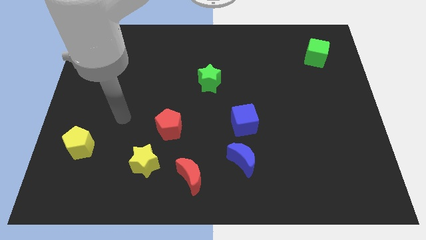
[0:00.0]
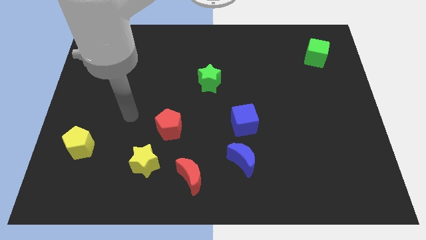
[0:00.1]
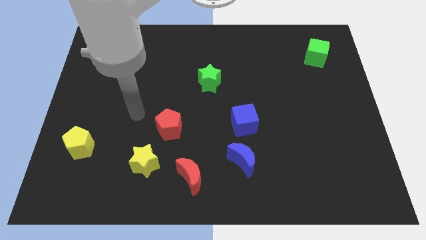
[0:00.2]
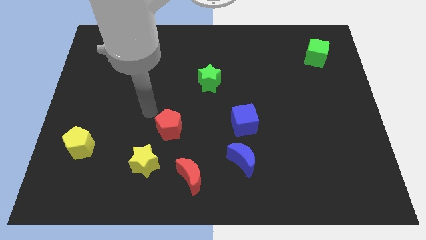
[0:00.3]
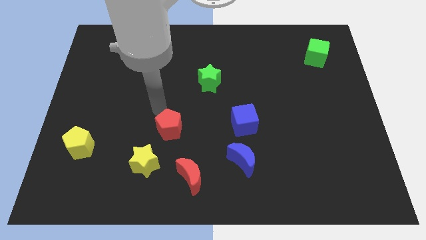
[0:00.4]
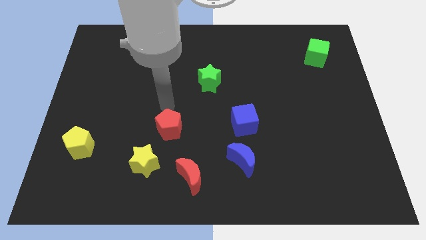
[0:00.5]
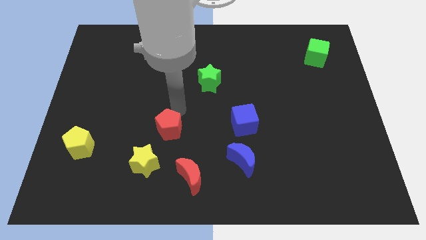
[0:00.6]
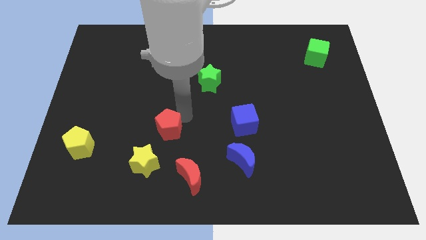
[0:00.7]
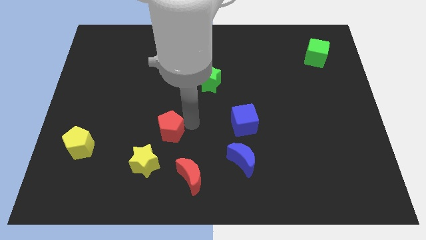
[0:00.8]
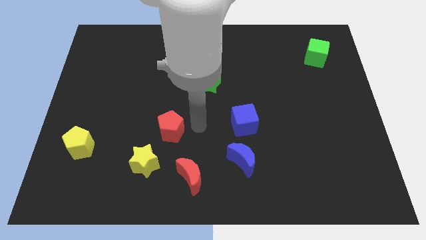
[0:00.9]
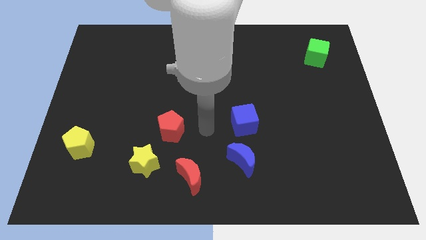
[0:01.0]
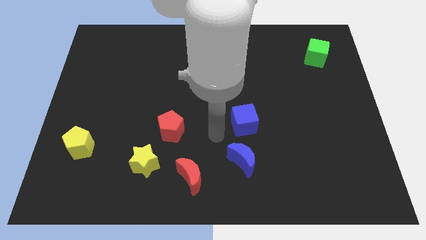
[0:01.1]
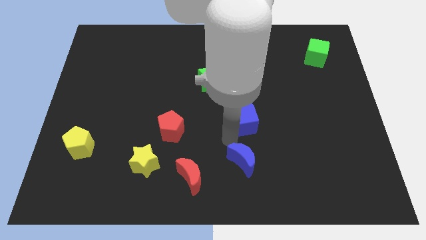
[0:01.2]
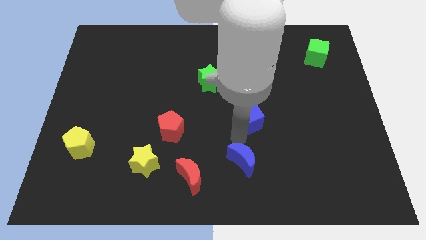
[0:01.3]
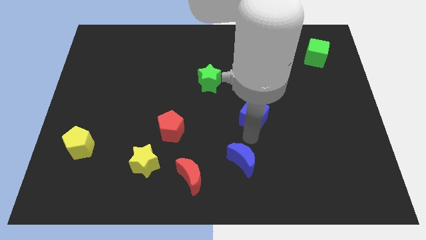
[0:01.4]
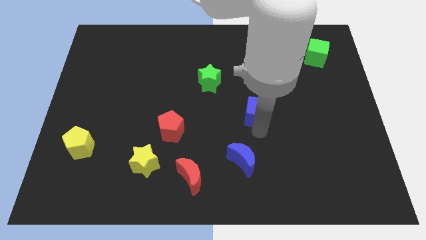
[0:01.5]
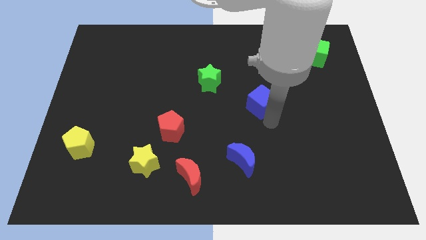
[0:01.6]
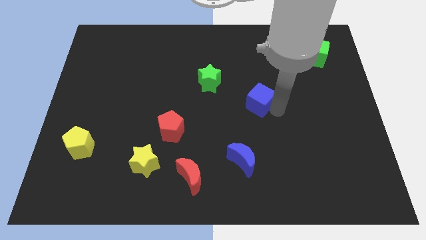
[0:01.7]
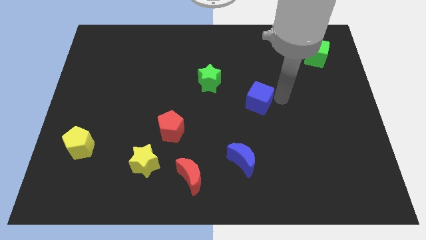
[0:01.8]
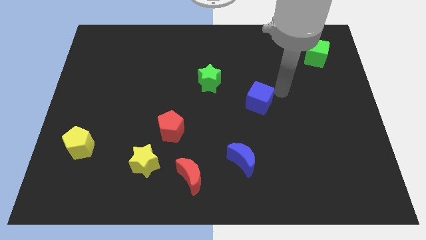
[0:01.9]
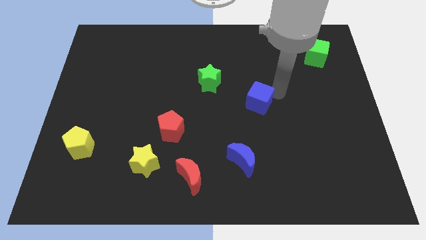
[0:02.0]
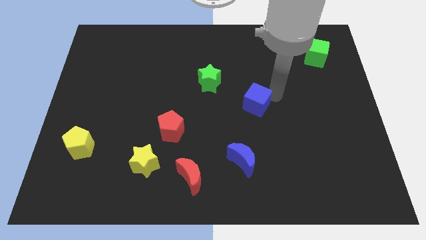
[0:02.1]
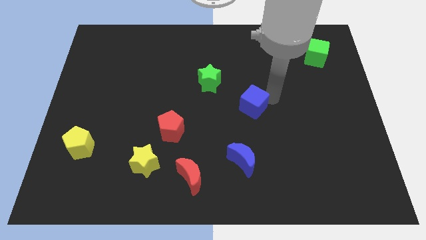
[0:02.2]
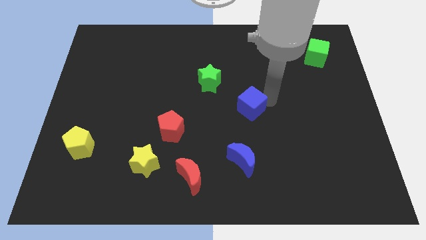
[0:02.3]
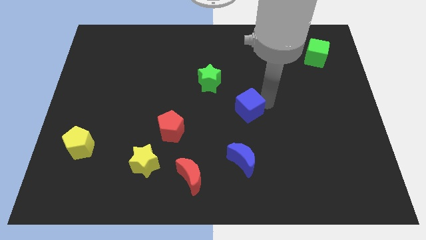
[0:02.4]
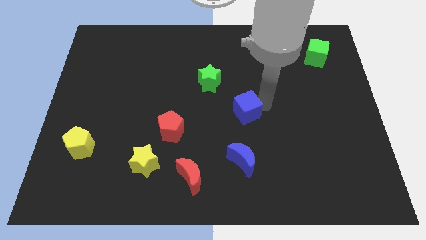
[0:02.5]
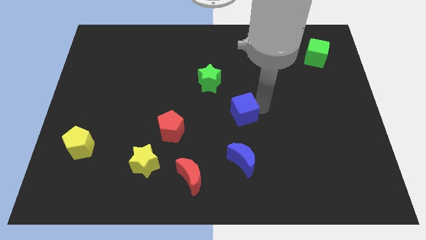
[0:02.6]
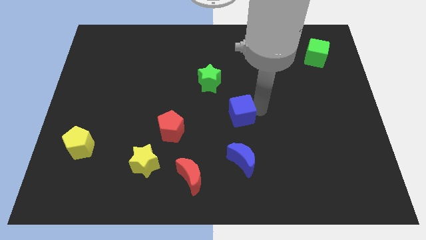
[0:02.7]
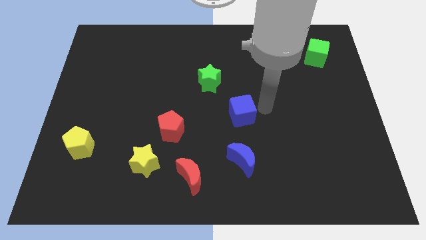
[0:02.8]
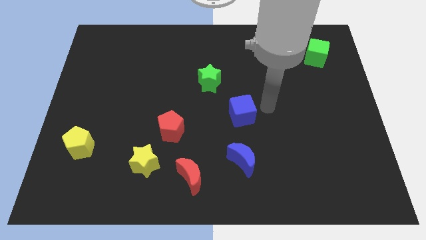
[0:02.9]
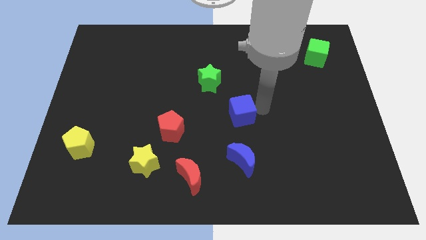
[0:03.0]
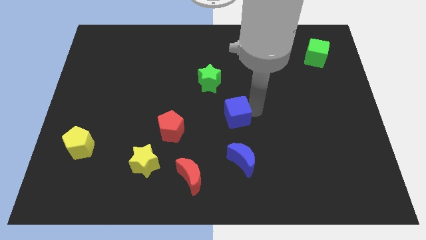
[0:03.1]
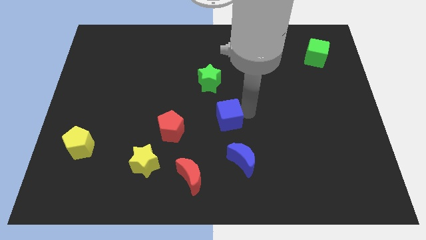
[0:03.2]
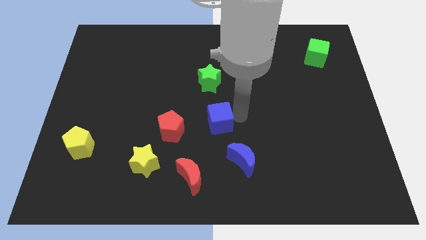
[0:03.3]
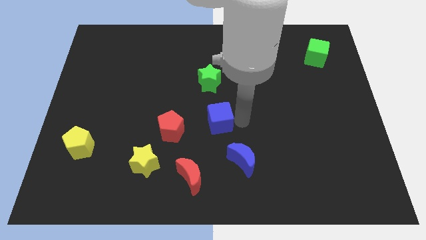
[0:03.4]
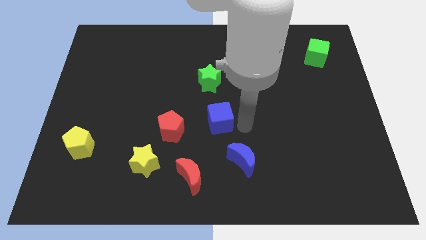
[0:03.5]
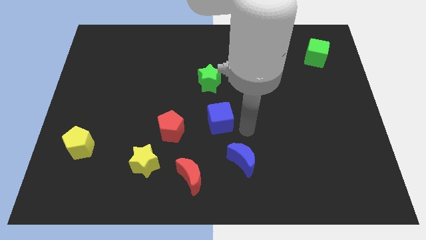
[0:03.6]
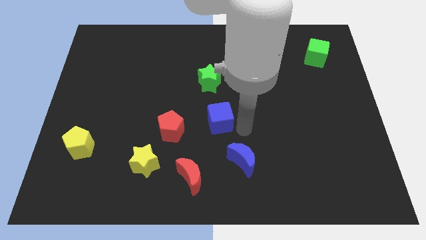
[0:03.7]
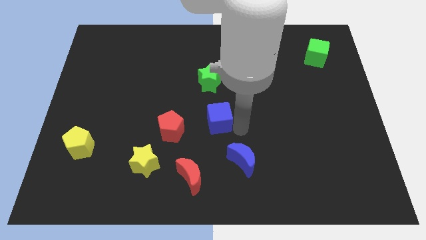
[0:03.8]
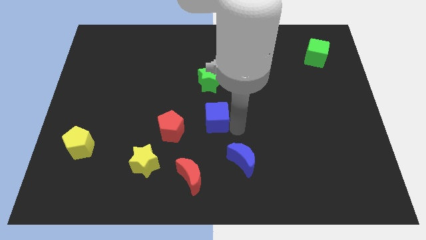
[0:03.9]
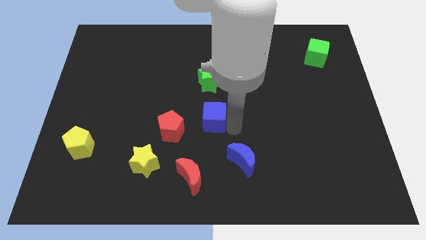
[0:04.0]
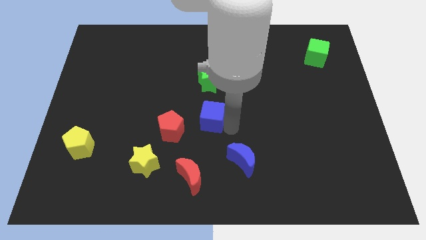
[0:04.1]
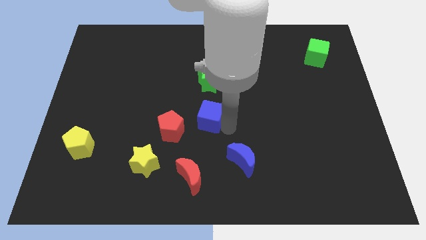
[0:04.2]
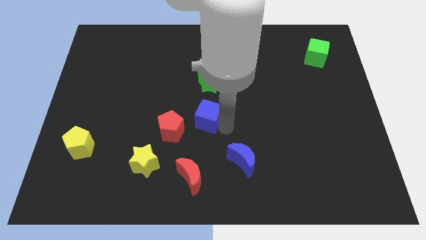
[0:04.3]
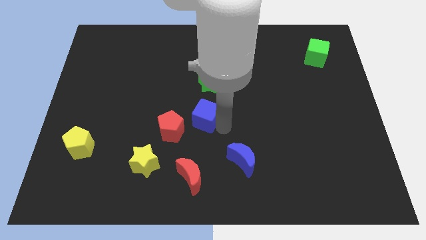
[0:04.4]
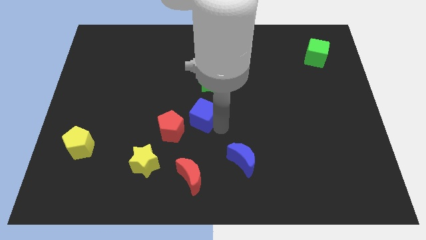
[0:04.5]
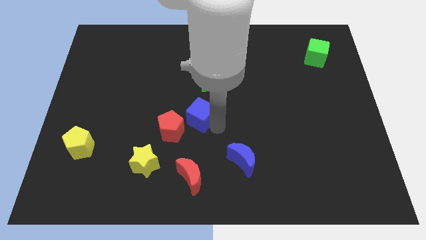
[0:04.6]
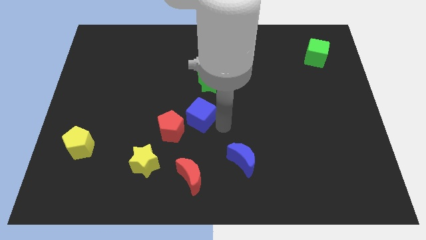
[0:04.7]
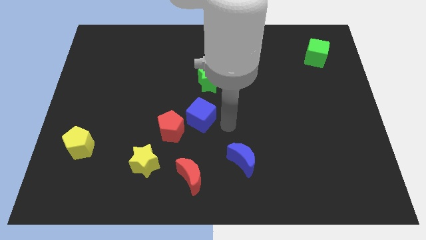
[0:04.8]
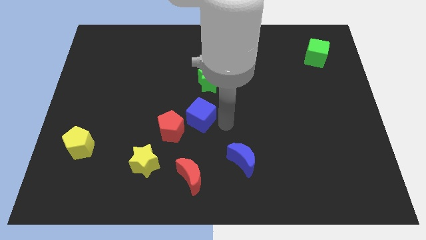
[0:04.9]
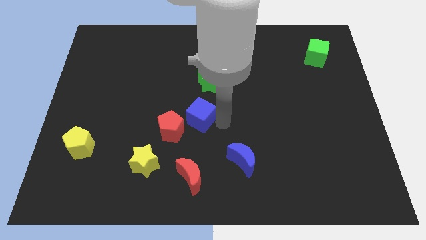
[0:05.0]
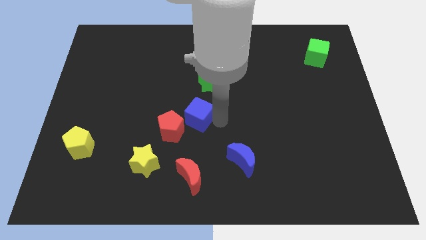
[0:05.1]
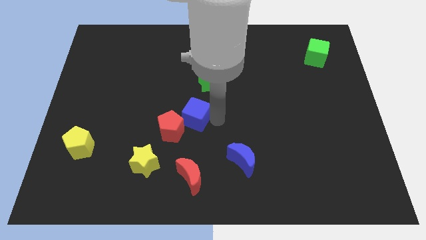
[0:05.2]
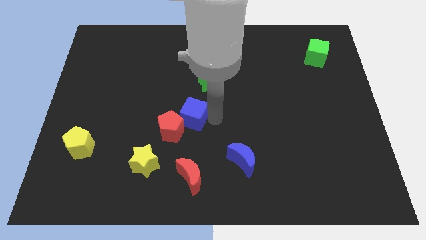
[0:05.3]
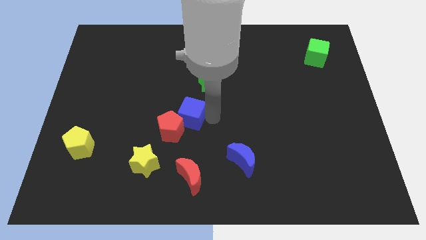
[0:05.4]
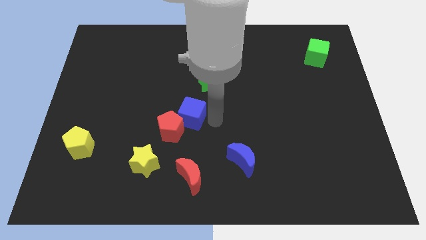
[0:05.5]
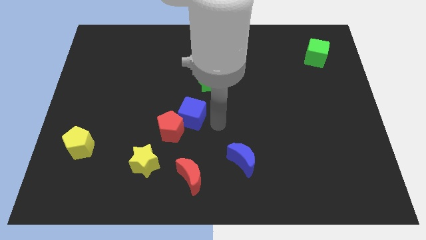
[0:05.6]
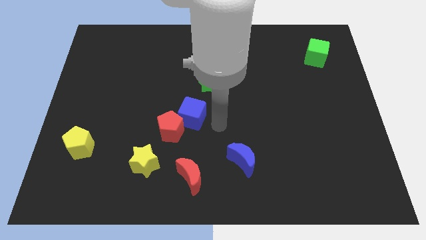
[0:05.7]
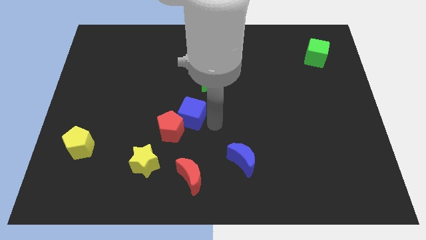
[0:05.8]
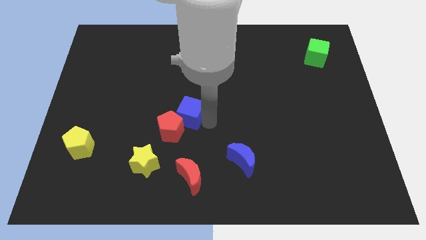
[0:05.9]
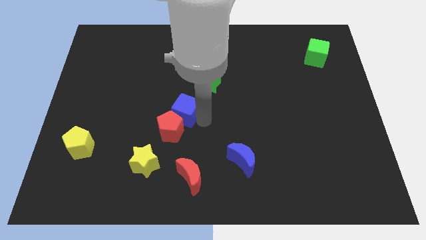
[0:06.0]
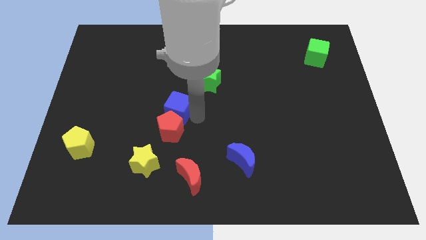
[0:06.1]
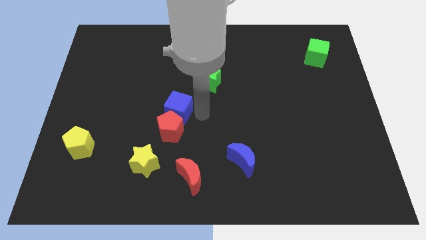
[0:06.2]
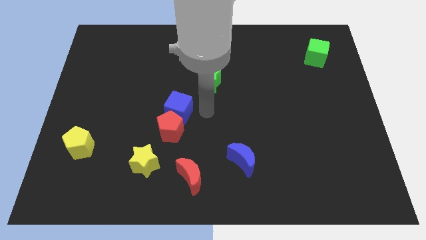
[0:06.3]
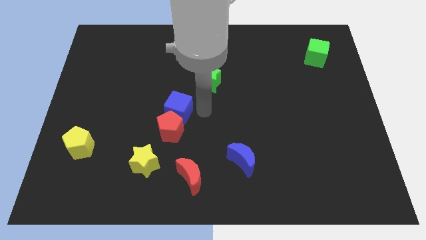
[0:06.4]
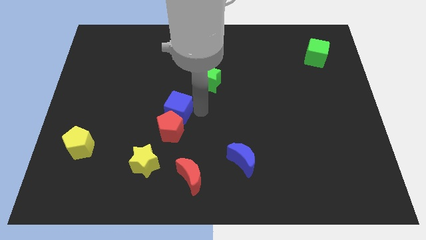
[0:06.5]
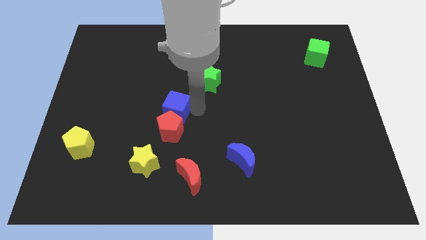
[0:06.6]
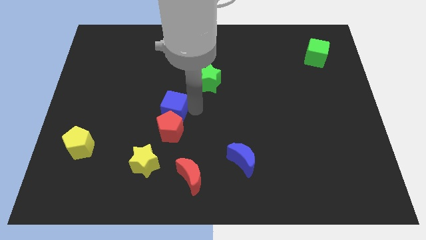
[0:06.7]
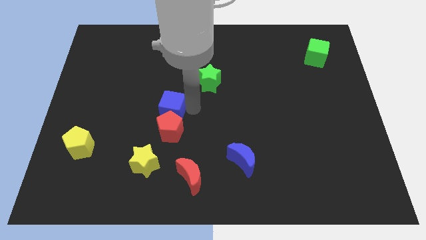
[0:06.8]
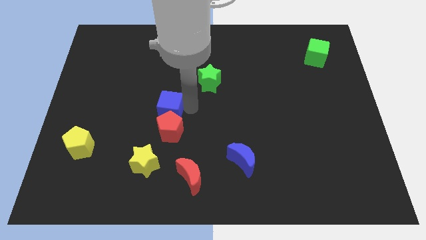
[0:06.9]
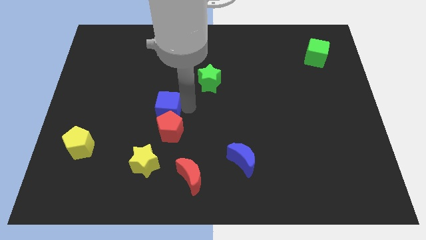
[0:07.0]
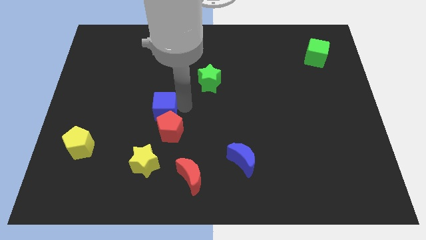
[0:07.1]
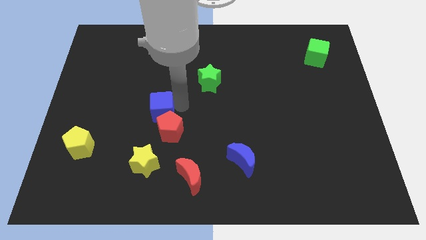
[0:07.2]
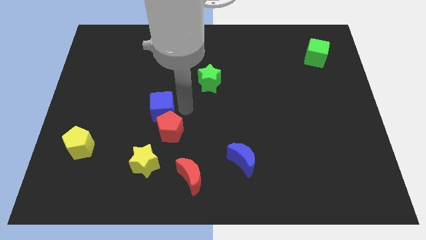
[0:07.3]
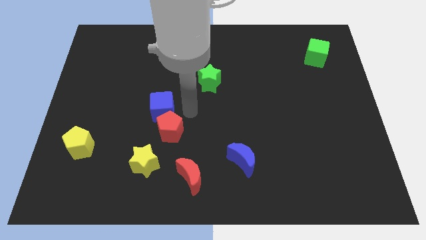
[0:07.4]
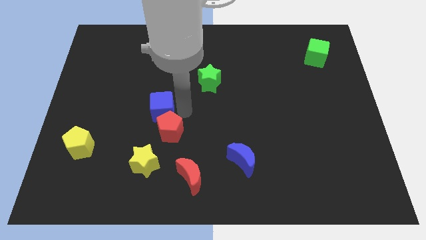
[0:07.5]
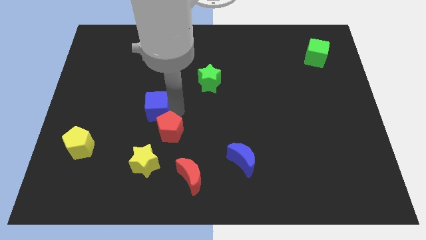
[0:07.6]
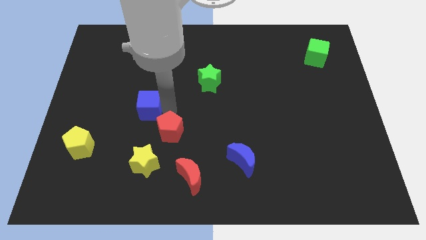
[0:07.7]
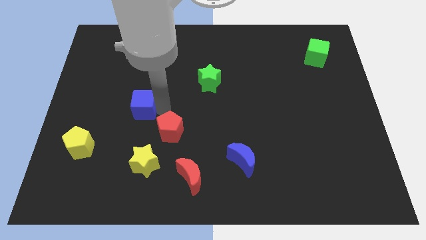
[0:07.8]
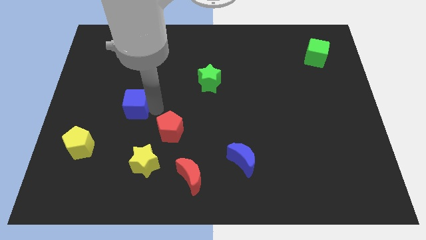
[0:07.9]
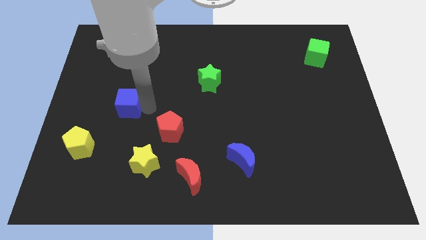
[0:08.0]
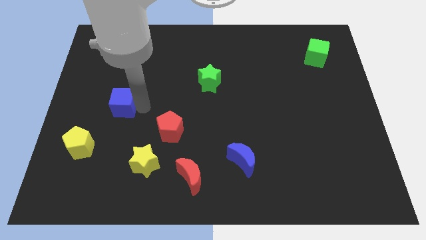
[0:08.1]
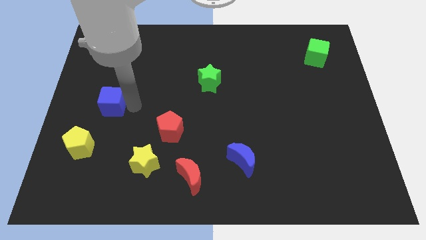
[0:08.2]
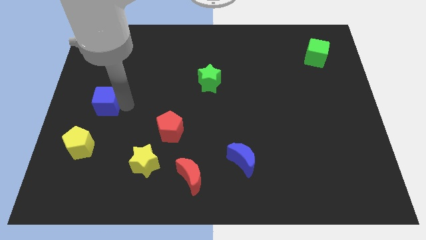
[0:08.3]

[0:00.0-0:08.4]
put the blue cube above the yellow pentagon
